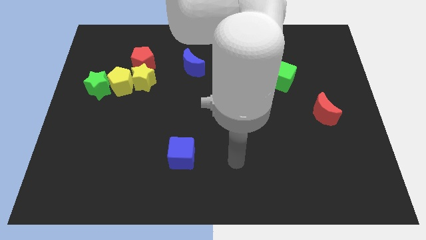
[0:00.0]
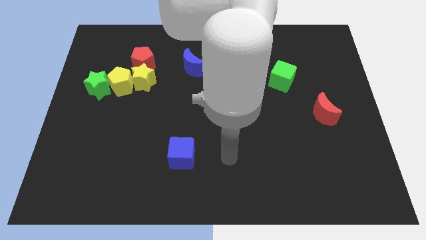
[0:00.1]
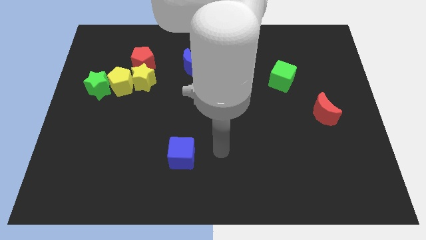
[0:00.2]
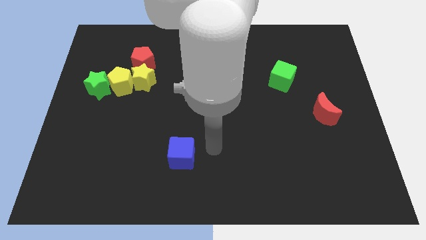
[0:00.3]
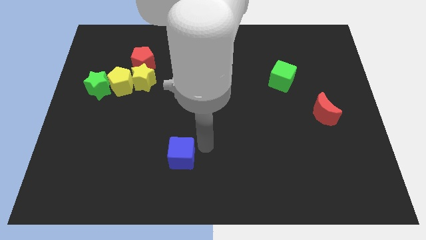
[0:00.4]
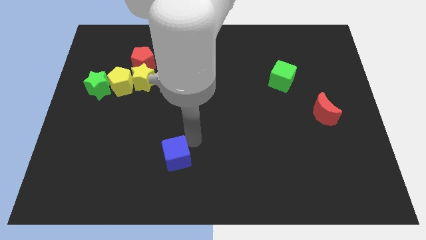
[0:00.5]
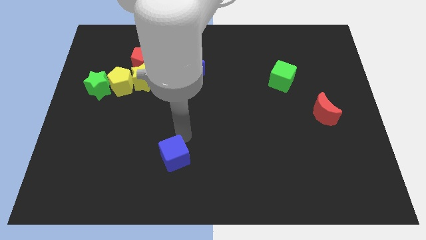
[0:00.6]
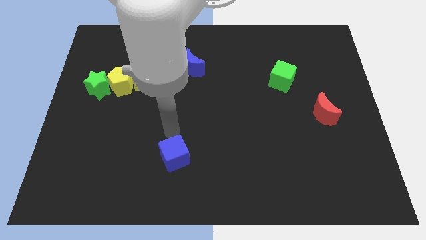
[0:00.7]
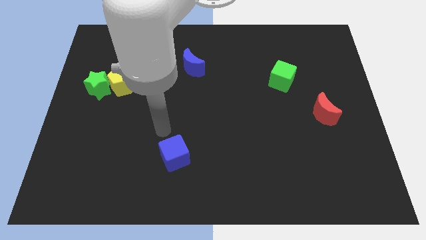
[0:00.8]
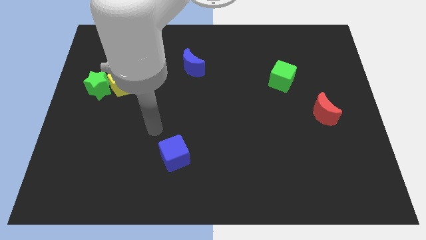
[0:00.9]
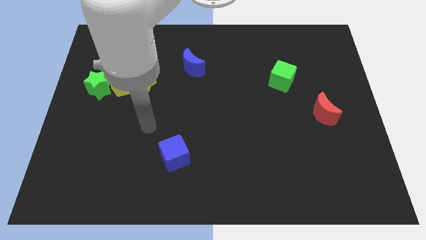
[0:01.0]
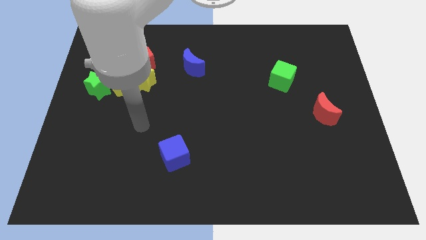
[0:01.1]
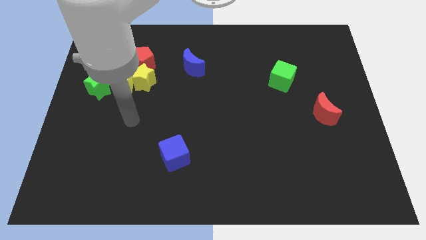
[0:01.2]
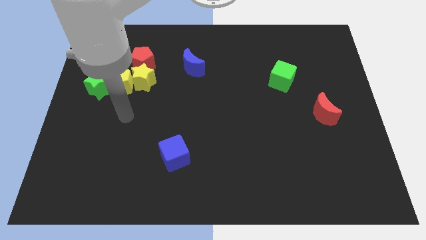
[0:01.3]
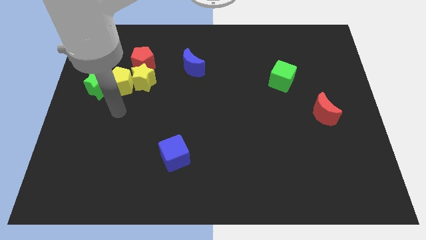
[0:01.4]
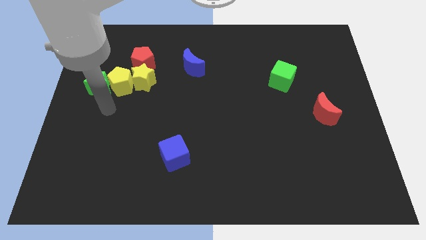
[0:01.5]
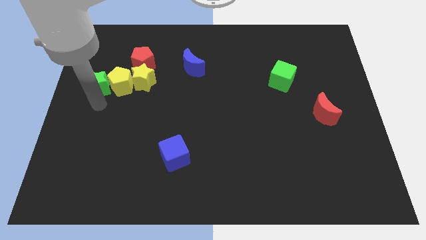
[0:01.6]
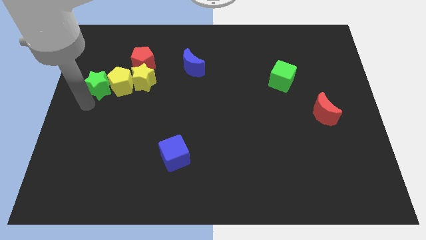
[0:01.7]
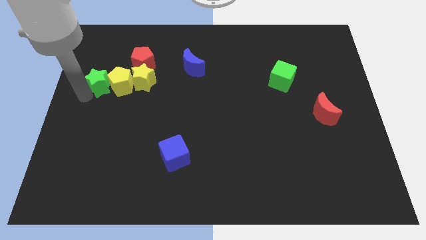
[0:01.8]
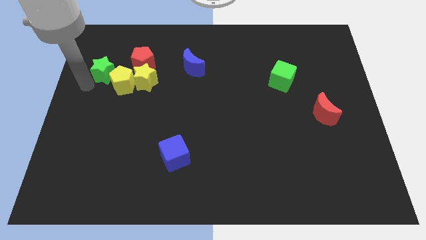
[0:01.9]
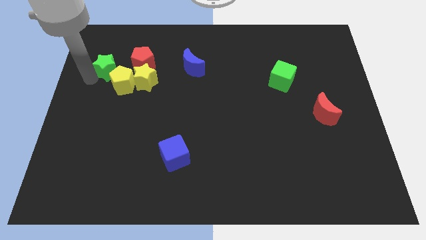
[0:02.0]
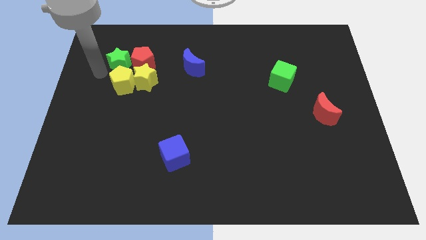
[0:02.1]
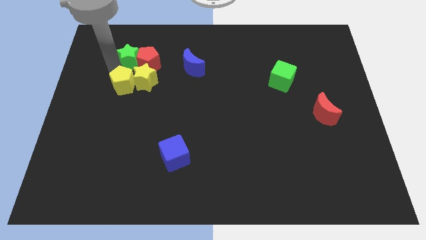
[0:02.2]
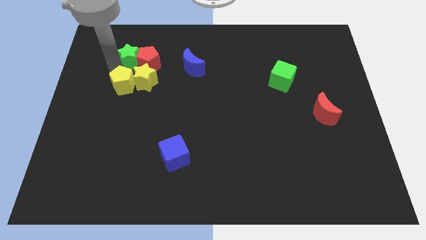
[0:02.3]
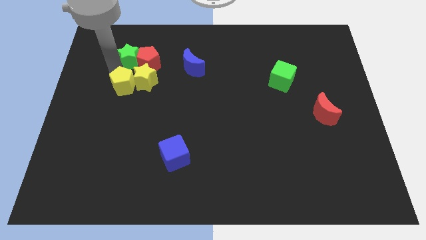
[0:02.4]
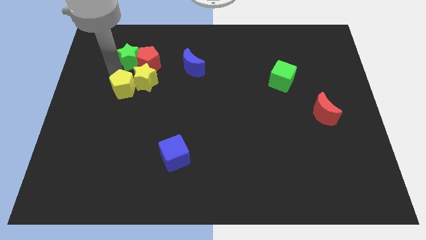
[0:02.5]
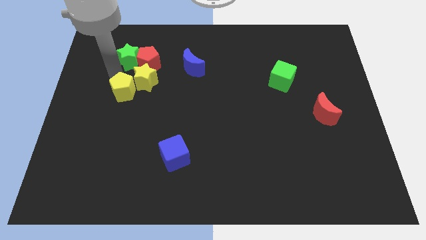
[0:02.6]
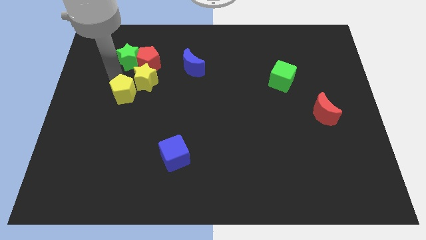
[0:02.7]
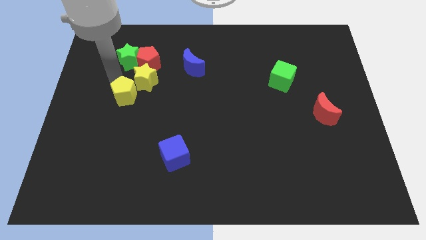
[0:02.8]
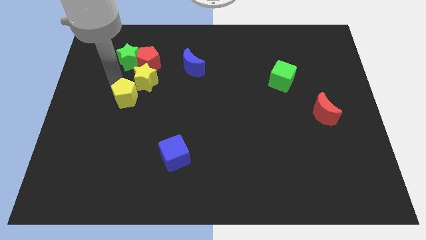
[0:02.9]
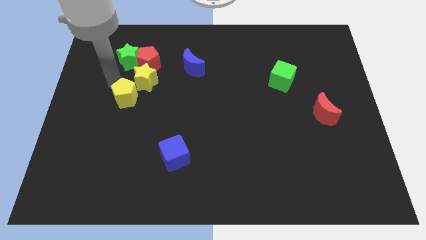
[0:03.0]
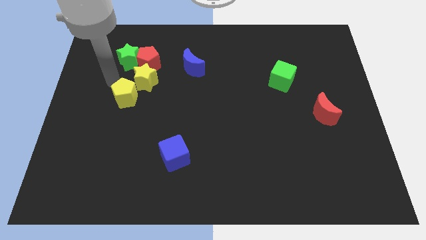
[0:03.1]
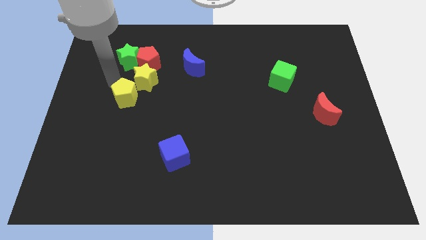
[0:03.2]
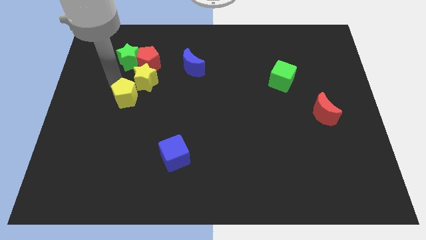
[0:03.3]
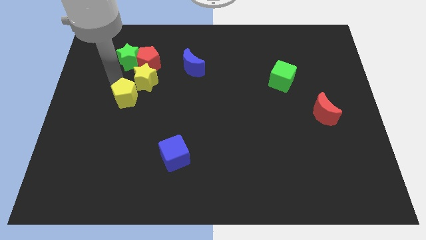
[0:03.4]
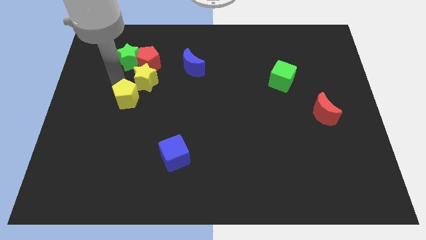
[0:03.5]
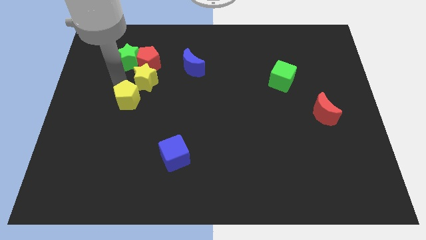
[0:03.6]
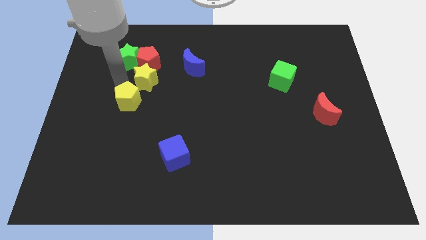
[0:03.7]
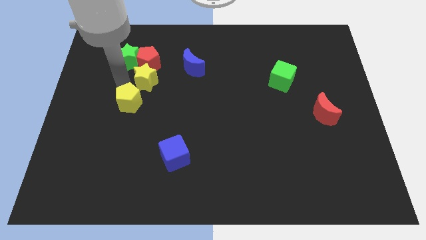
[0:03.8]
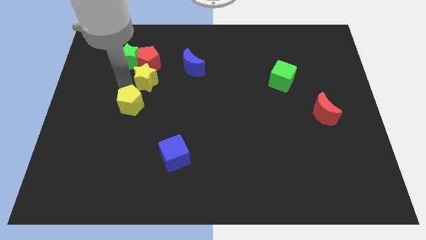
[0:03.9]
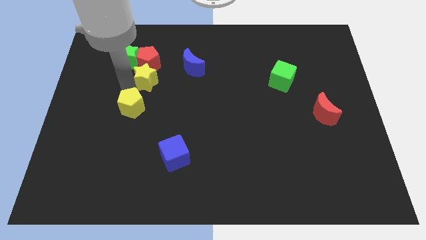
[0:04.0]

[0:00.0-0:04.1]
slightly move the yellow pentagon downwards and then right

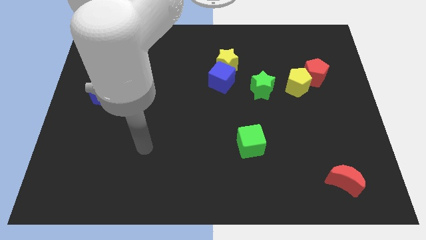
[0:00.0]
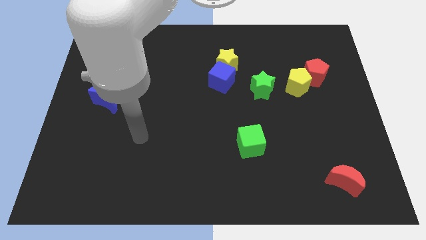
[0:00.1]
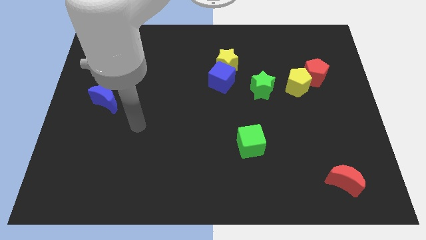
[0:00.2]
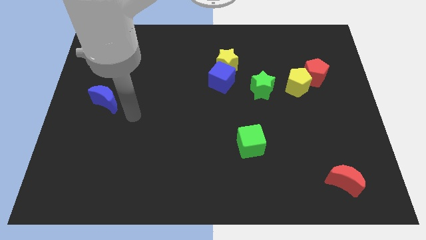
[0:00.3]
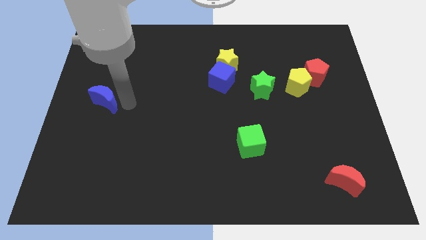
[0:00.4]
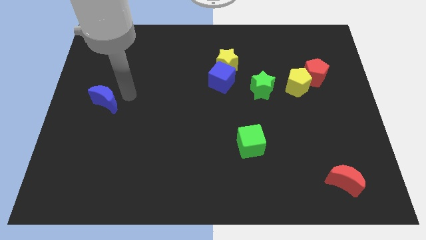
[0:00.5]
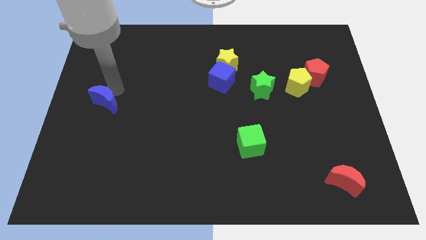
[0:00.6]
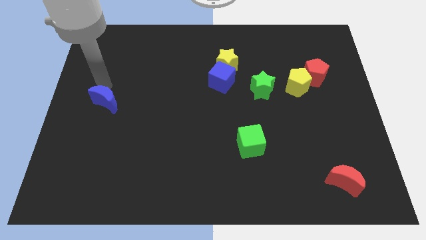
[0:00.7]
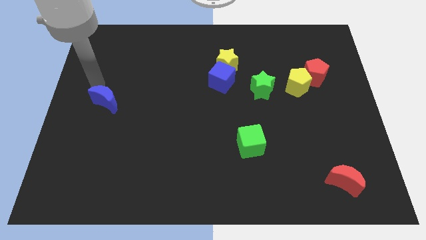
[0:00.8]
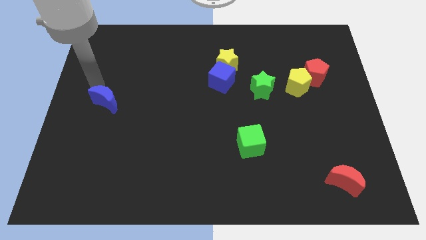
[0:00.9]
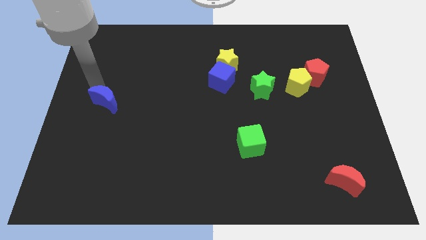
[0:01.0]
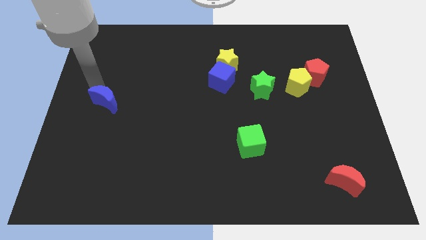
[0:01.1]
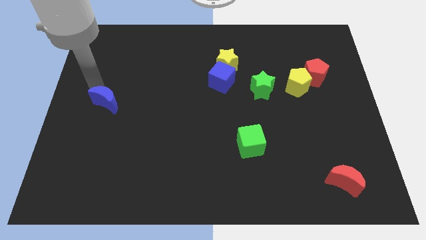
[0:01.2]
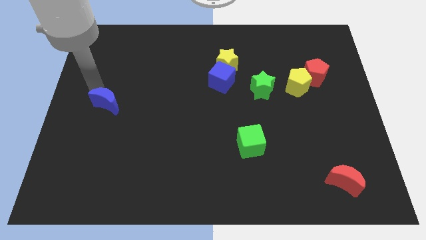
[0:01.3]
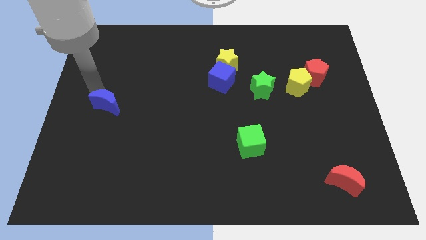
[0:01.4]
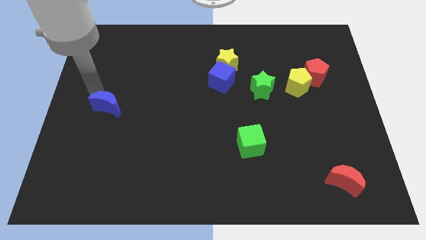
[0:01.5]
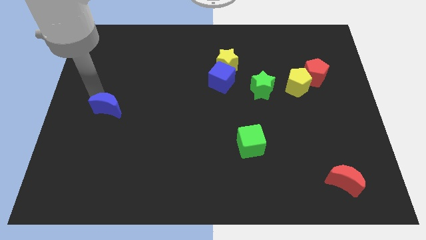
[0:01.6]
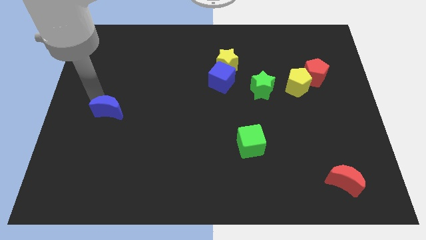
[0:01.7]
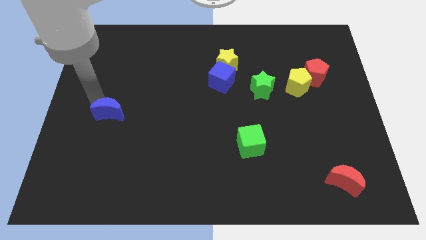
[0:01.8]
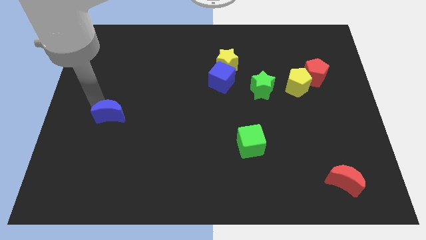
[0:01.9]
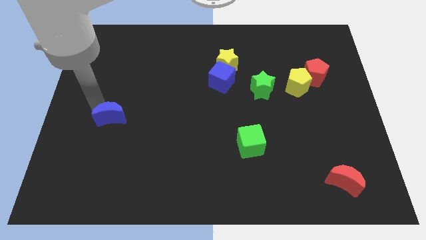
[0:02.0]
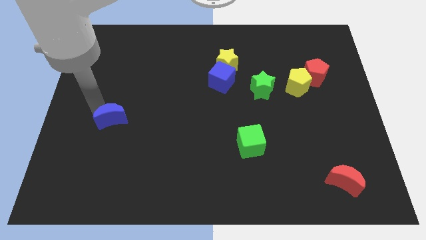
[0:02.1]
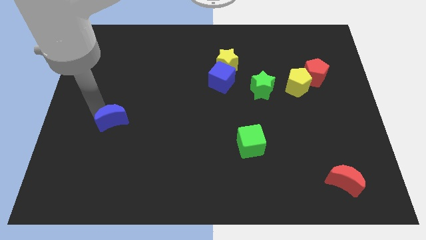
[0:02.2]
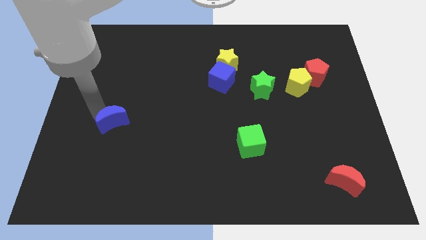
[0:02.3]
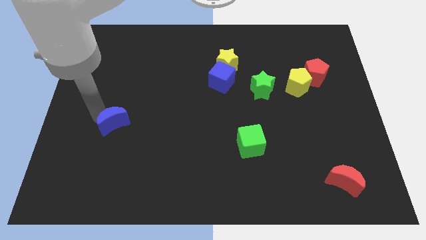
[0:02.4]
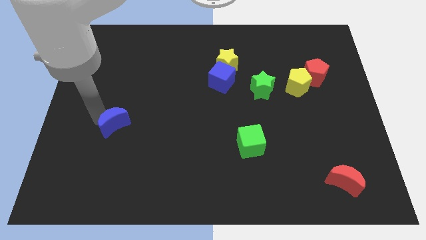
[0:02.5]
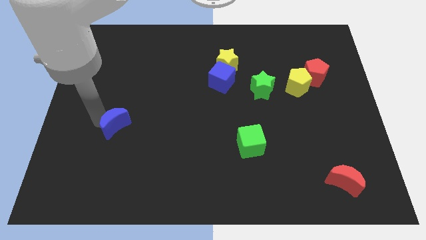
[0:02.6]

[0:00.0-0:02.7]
slide the blue moon down and to the right diagonally slightly

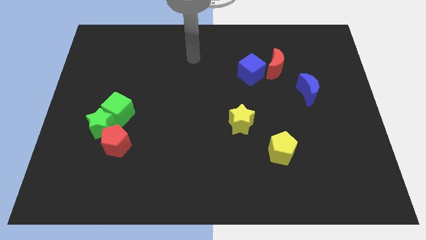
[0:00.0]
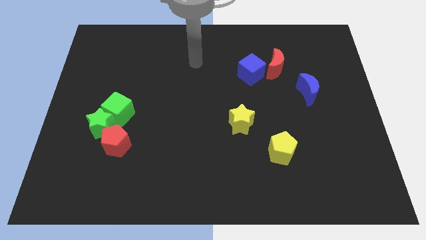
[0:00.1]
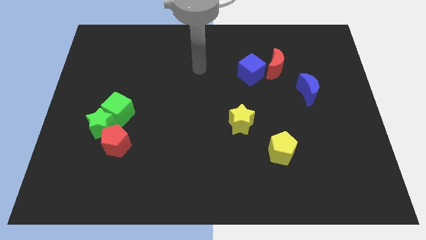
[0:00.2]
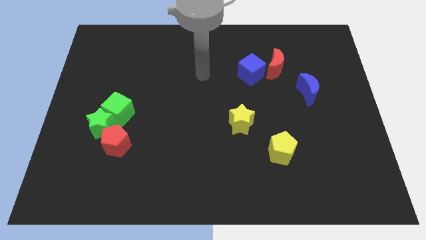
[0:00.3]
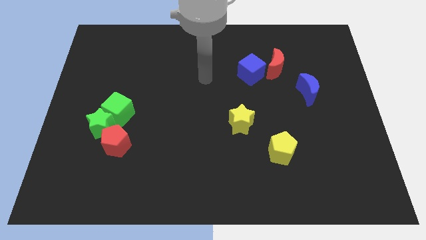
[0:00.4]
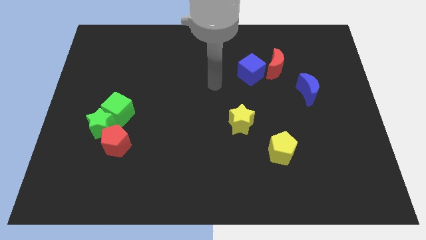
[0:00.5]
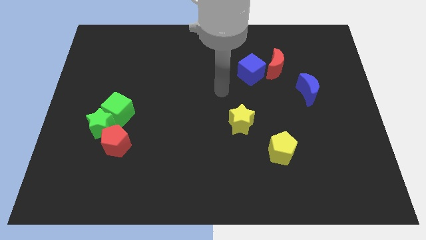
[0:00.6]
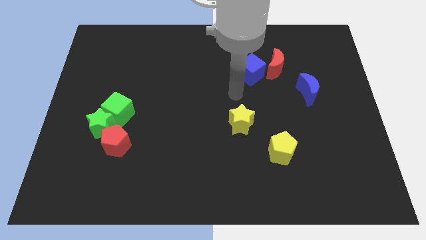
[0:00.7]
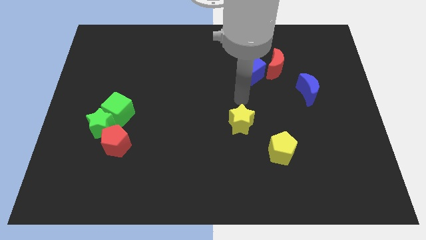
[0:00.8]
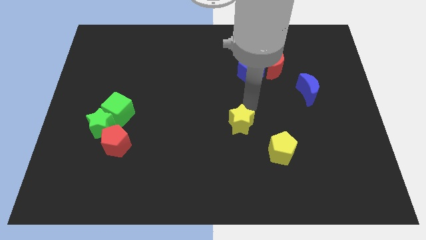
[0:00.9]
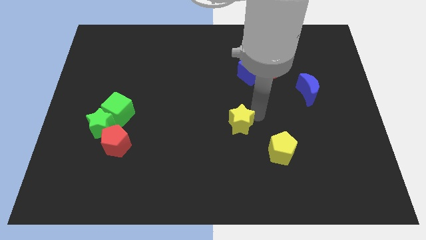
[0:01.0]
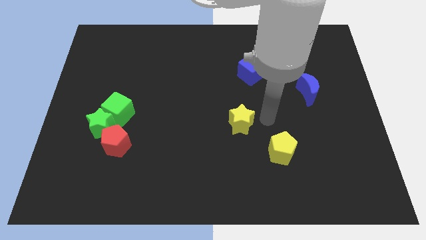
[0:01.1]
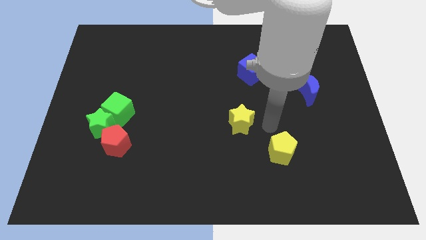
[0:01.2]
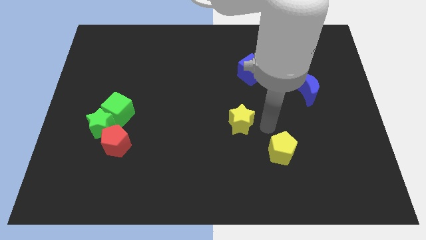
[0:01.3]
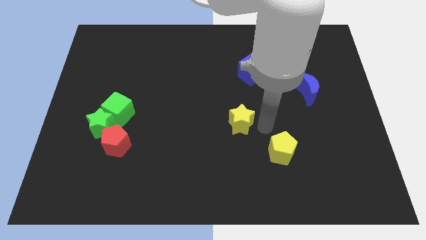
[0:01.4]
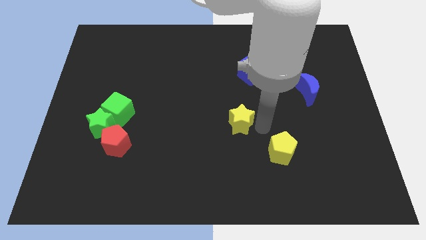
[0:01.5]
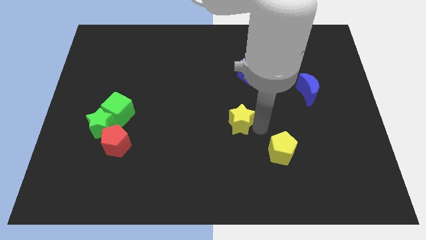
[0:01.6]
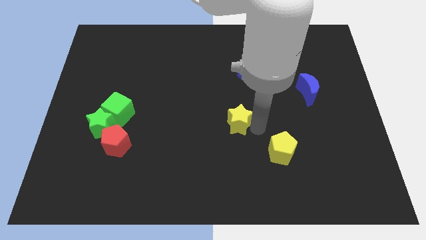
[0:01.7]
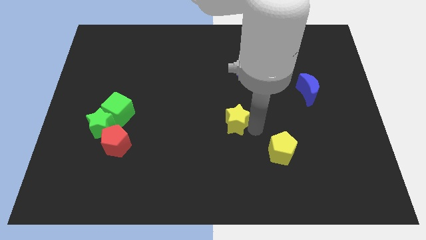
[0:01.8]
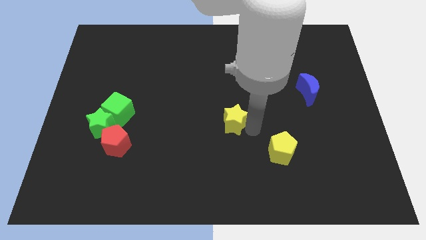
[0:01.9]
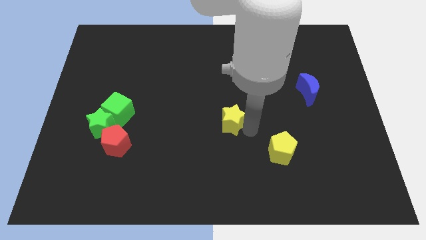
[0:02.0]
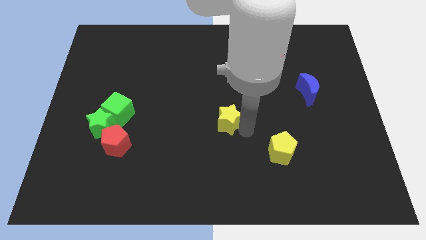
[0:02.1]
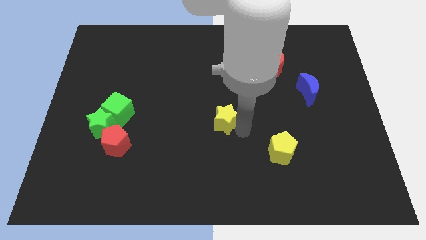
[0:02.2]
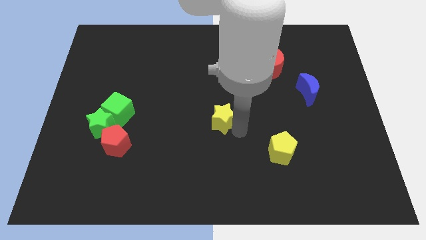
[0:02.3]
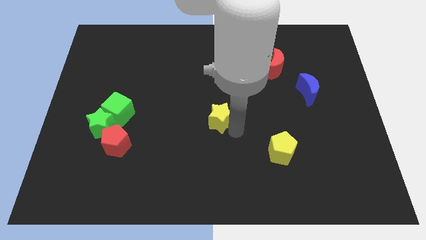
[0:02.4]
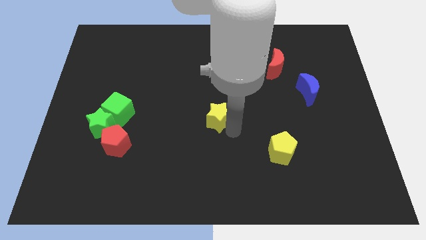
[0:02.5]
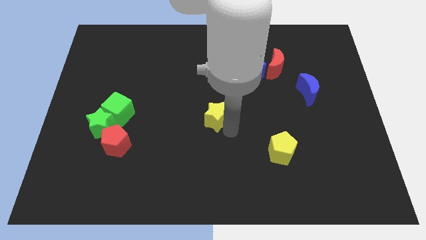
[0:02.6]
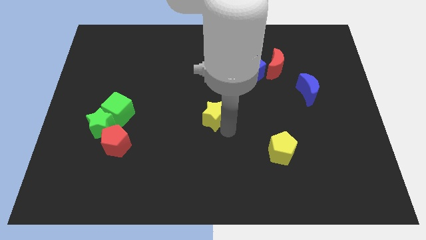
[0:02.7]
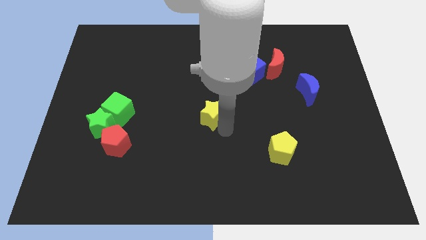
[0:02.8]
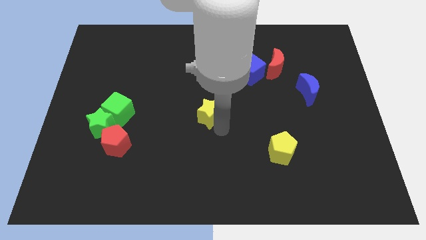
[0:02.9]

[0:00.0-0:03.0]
slightly move the yellow star left
